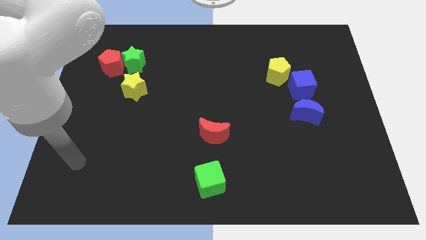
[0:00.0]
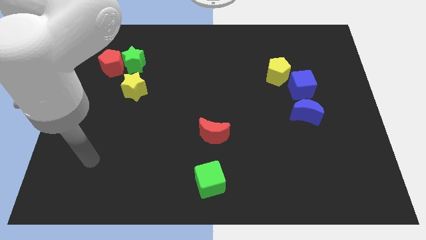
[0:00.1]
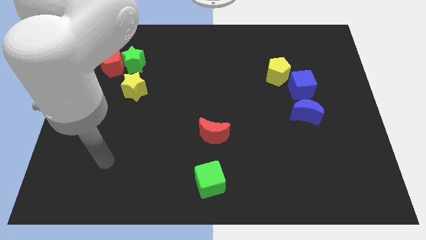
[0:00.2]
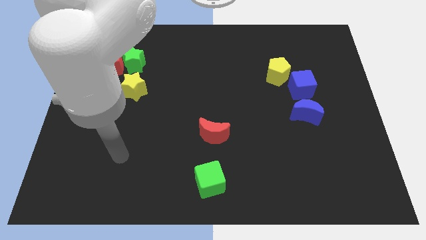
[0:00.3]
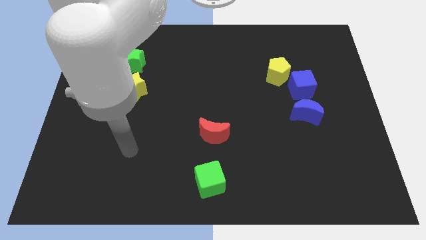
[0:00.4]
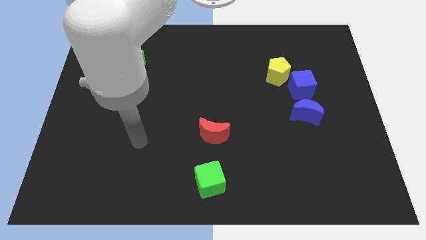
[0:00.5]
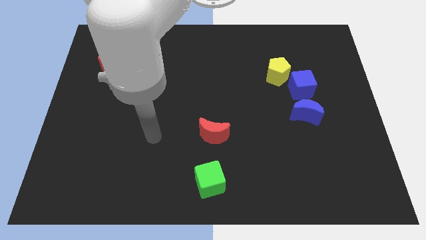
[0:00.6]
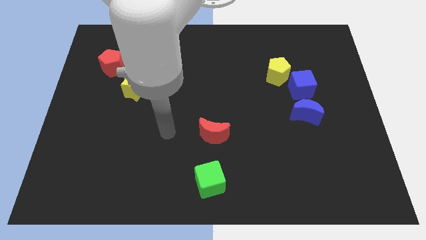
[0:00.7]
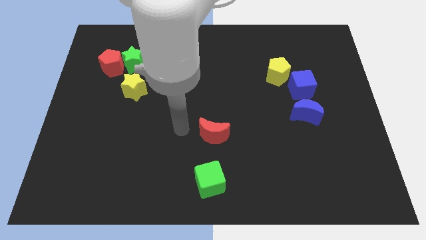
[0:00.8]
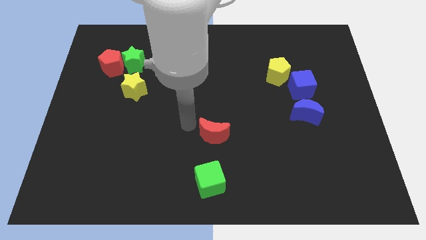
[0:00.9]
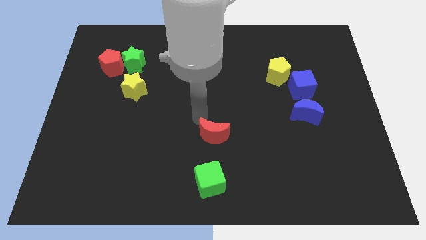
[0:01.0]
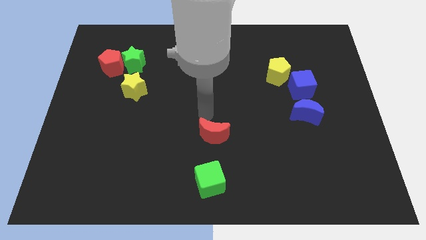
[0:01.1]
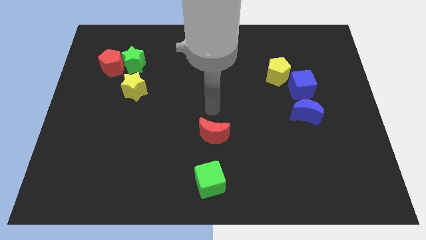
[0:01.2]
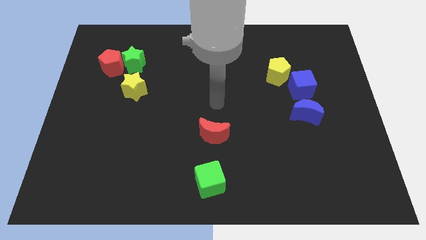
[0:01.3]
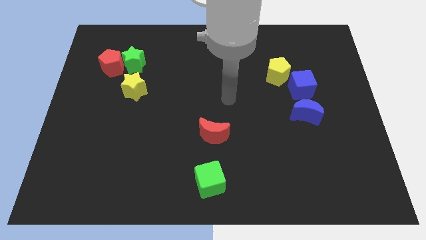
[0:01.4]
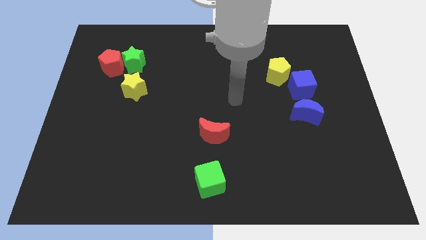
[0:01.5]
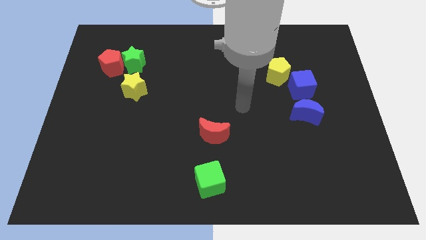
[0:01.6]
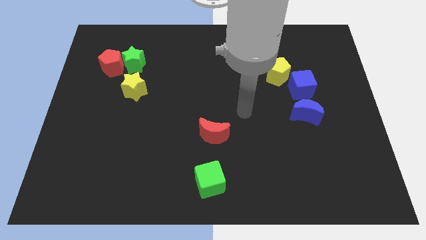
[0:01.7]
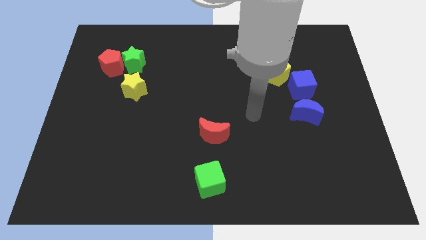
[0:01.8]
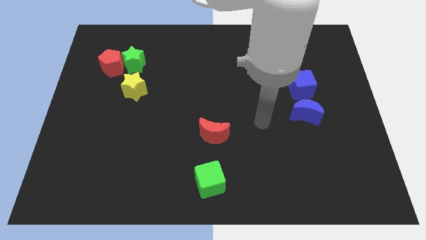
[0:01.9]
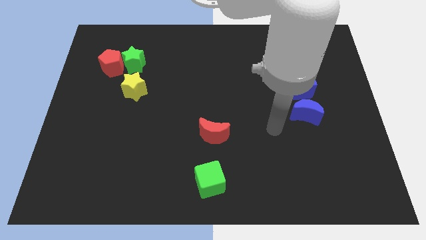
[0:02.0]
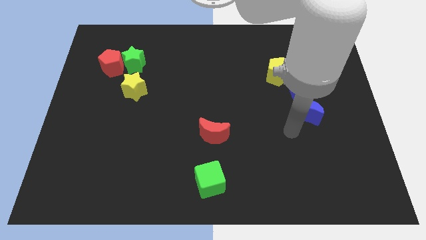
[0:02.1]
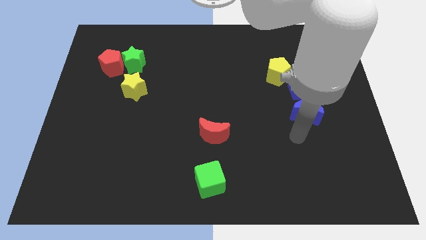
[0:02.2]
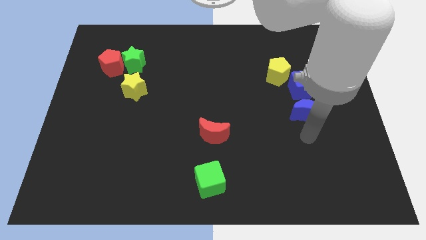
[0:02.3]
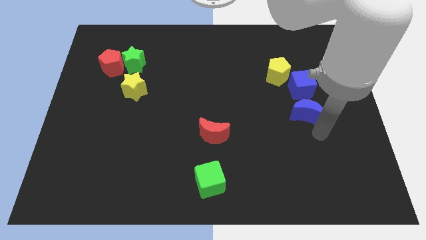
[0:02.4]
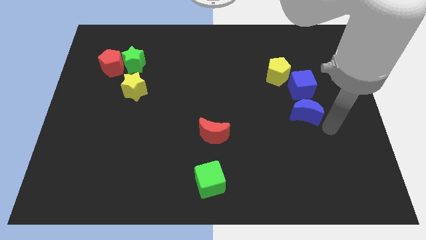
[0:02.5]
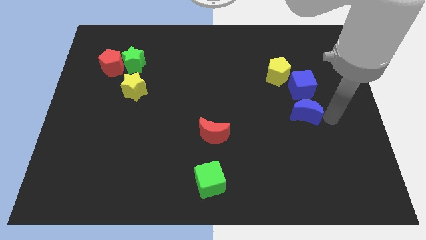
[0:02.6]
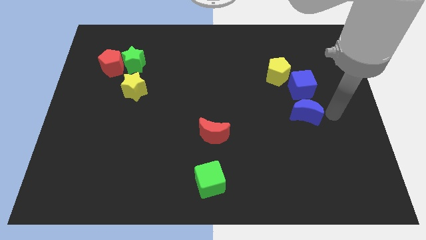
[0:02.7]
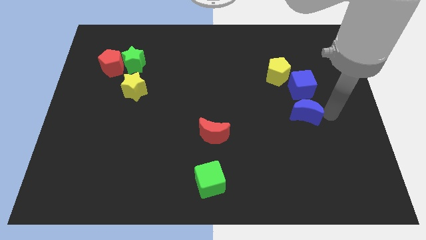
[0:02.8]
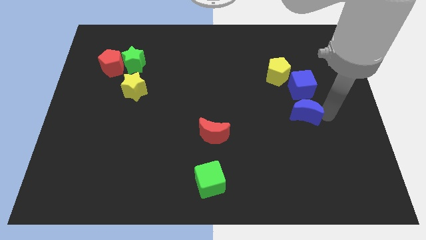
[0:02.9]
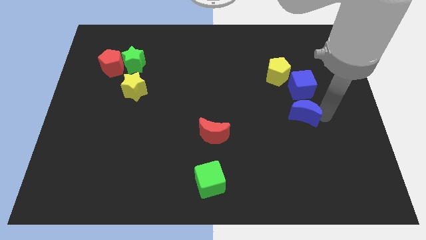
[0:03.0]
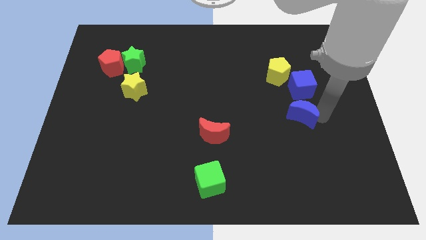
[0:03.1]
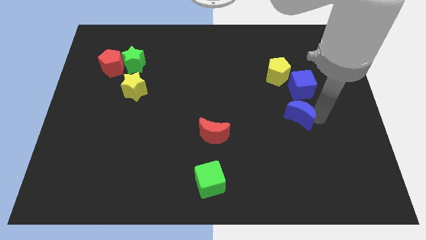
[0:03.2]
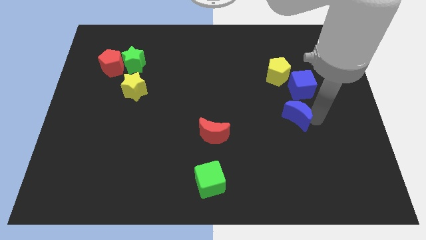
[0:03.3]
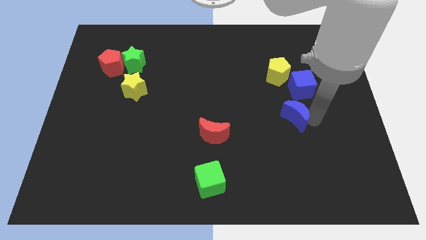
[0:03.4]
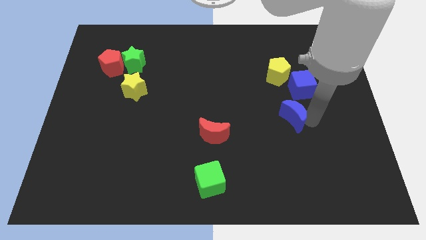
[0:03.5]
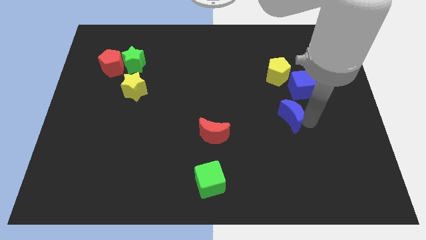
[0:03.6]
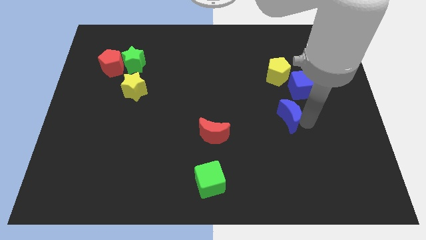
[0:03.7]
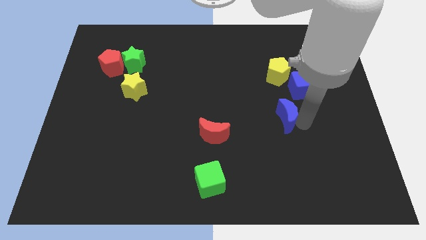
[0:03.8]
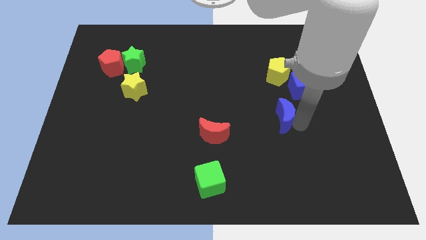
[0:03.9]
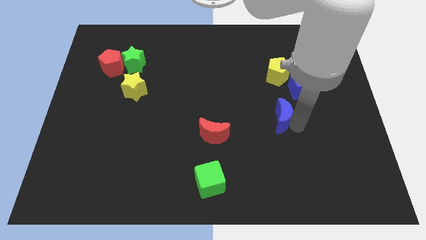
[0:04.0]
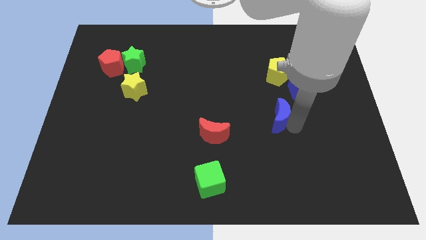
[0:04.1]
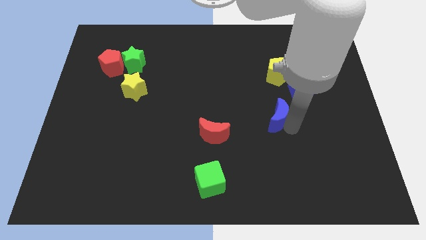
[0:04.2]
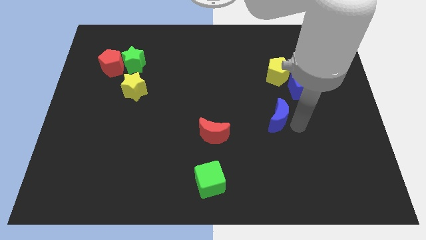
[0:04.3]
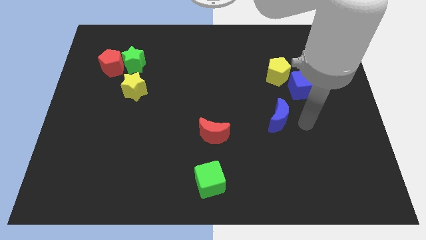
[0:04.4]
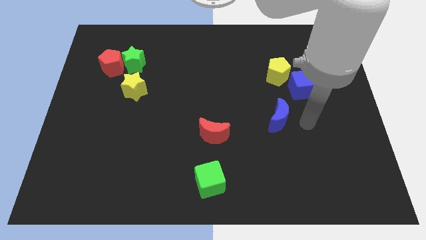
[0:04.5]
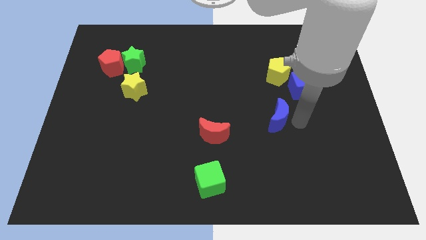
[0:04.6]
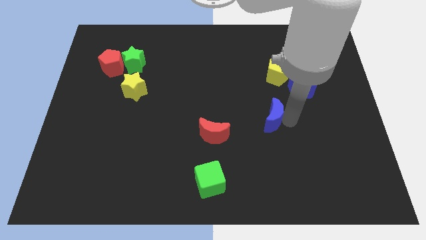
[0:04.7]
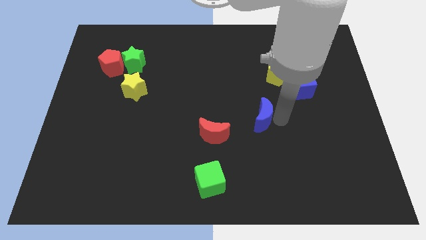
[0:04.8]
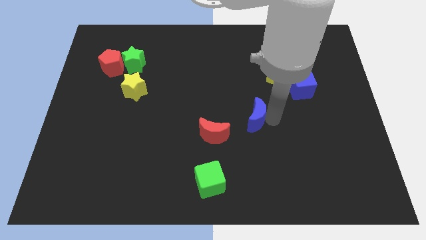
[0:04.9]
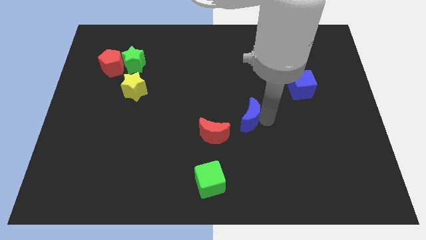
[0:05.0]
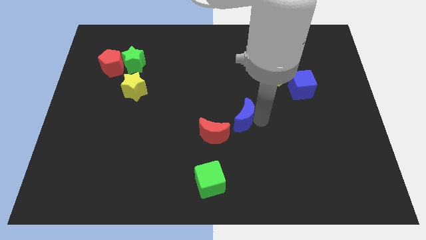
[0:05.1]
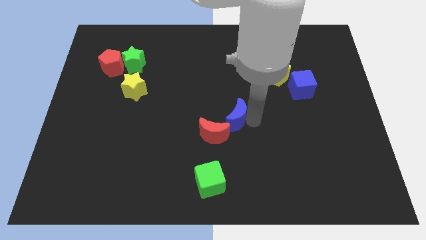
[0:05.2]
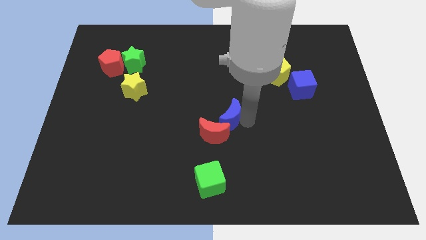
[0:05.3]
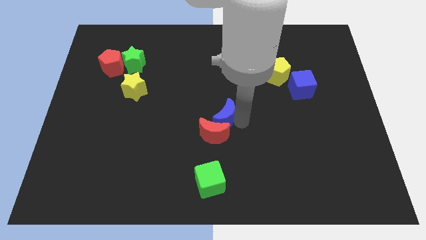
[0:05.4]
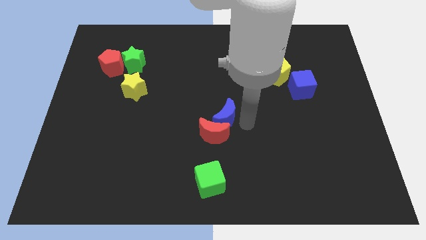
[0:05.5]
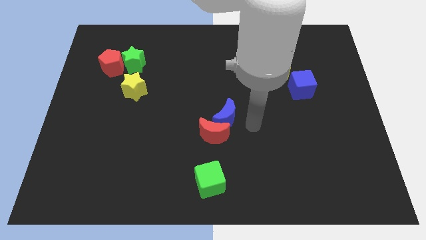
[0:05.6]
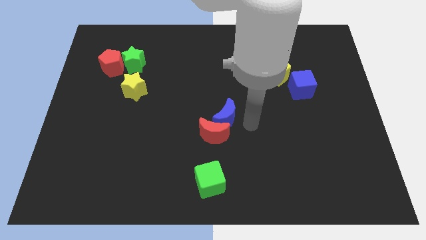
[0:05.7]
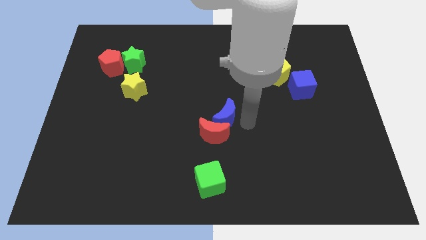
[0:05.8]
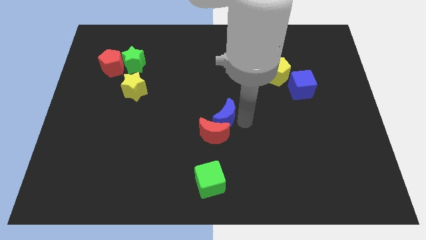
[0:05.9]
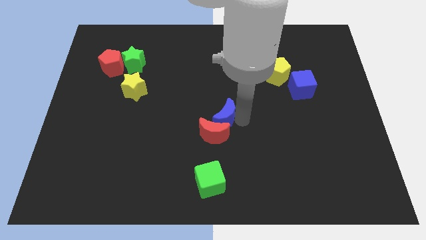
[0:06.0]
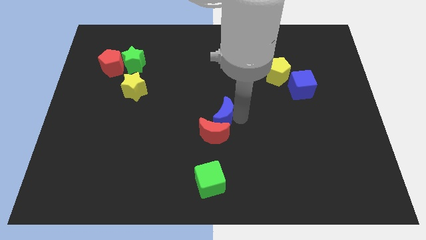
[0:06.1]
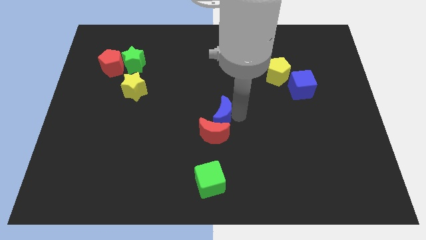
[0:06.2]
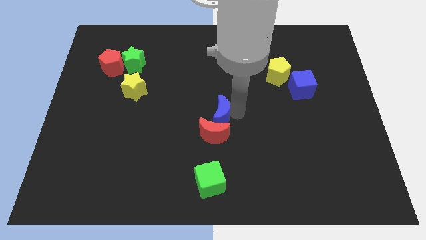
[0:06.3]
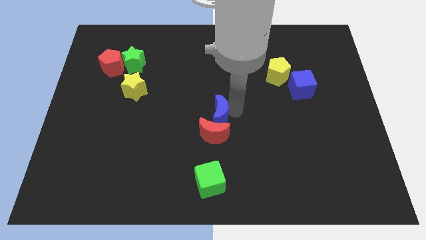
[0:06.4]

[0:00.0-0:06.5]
slide the blue moon left

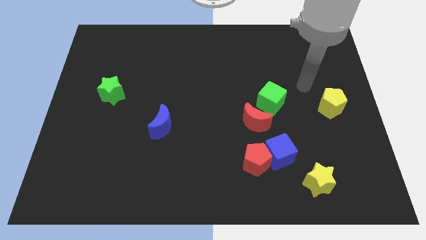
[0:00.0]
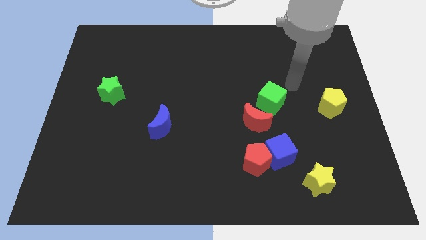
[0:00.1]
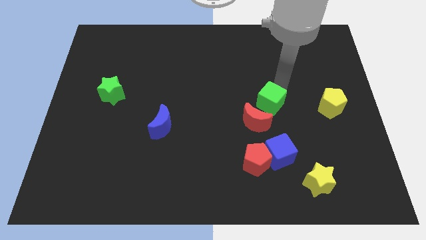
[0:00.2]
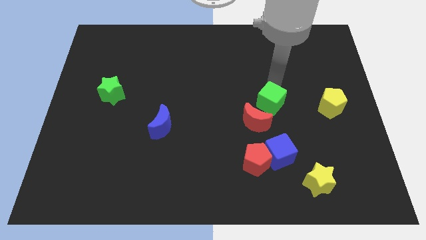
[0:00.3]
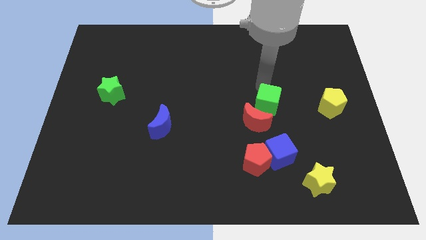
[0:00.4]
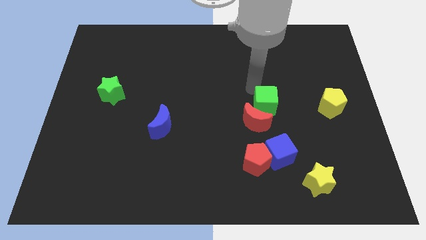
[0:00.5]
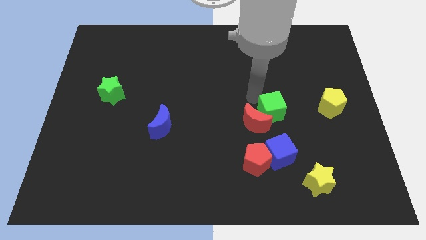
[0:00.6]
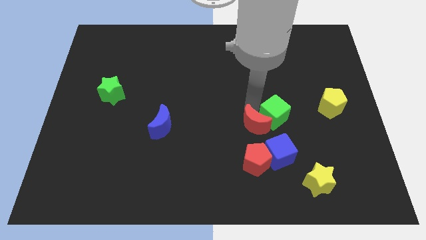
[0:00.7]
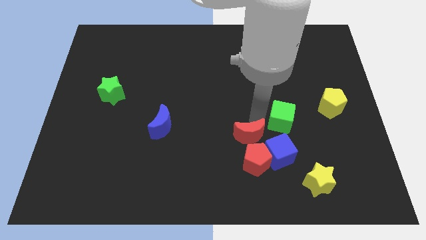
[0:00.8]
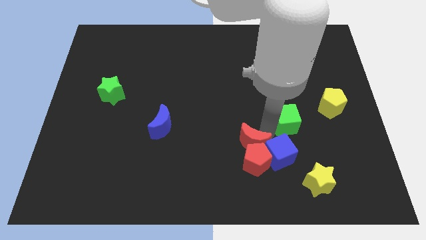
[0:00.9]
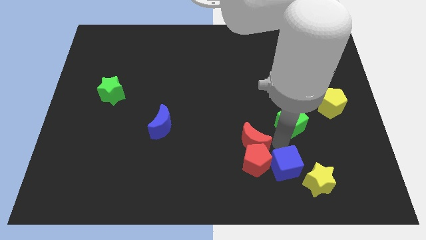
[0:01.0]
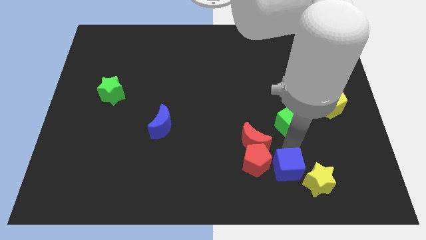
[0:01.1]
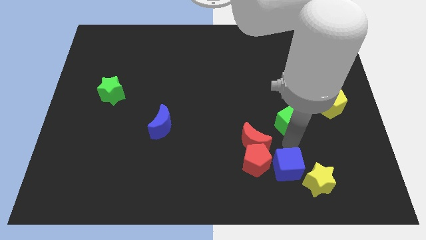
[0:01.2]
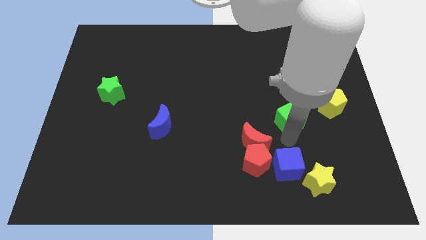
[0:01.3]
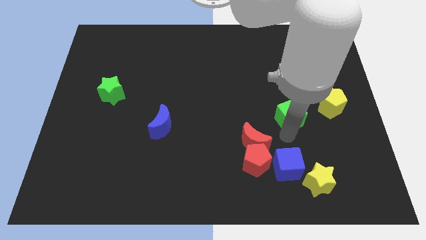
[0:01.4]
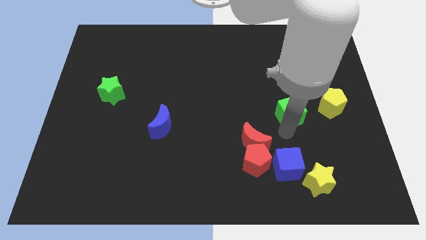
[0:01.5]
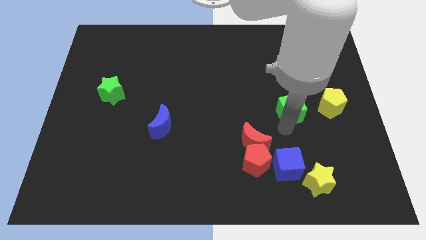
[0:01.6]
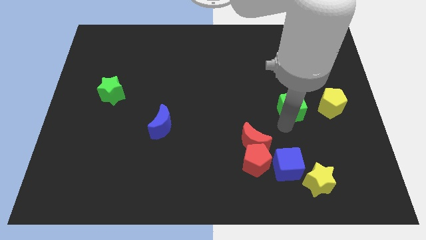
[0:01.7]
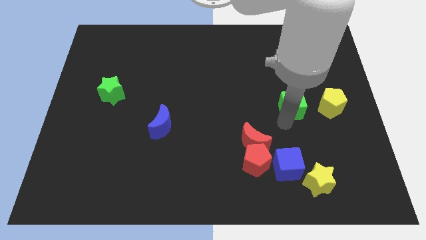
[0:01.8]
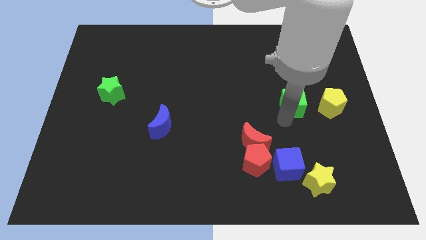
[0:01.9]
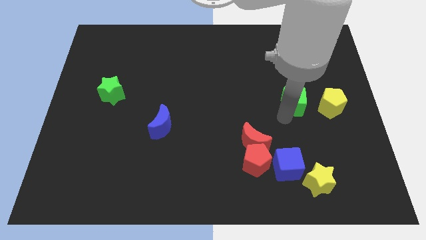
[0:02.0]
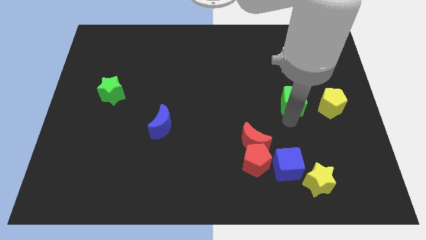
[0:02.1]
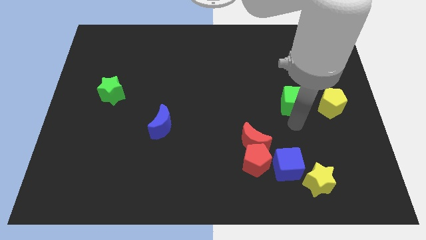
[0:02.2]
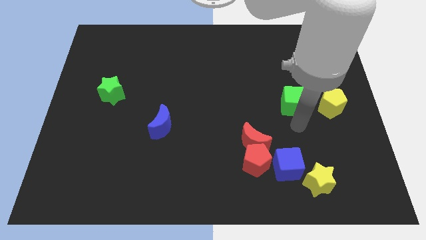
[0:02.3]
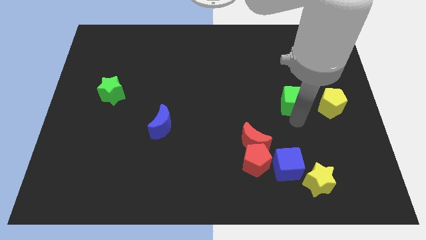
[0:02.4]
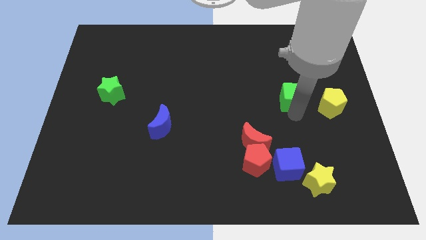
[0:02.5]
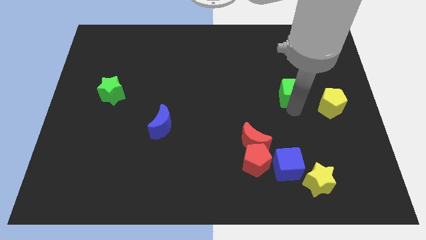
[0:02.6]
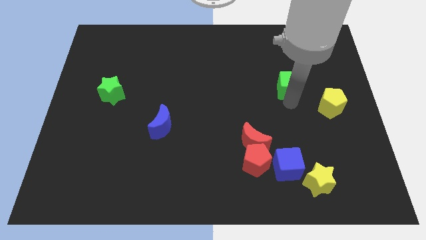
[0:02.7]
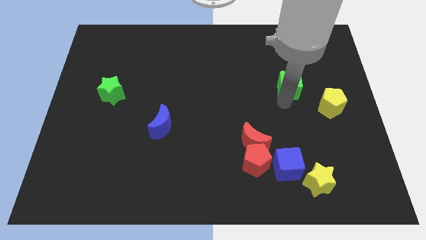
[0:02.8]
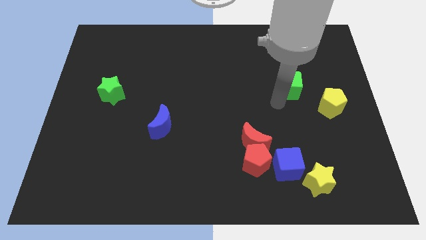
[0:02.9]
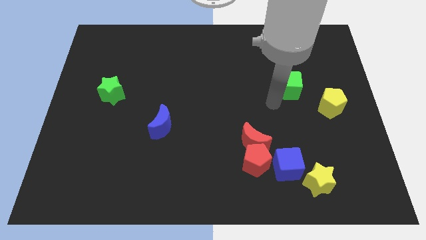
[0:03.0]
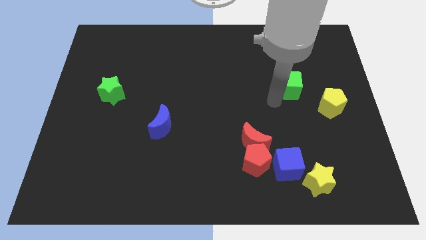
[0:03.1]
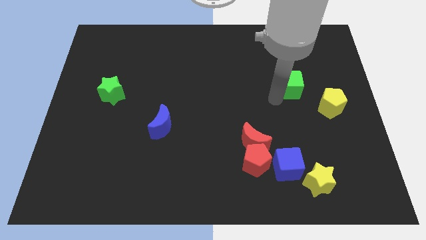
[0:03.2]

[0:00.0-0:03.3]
push the green cube slightly up and right diagonally
